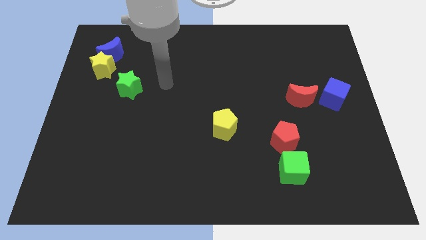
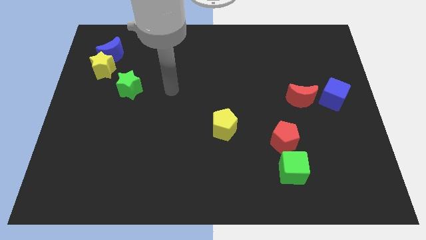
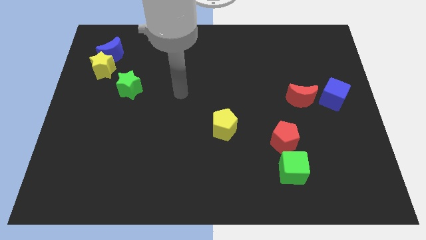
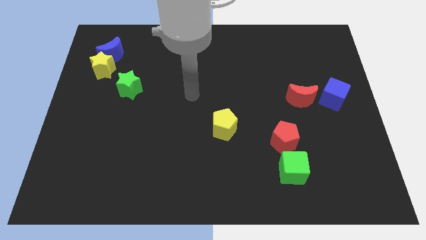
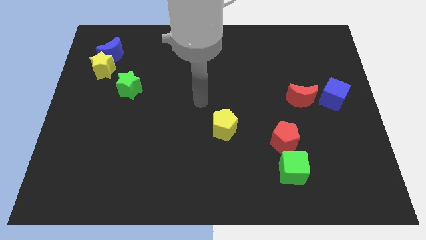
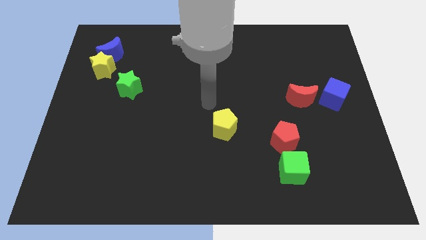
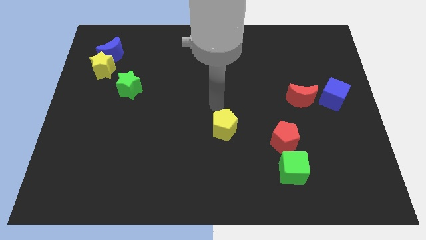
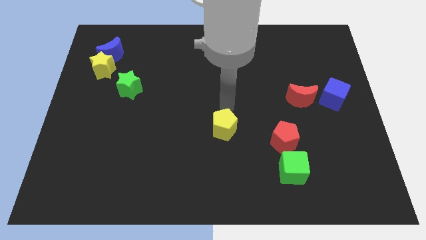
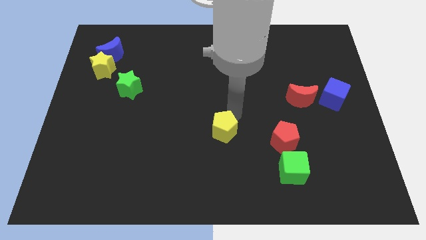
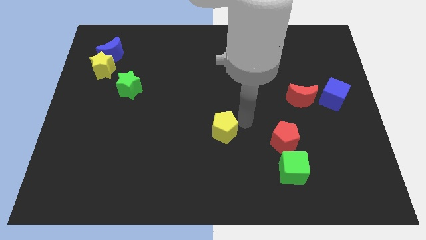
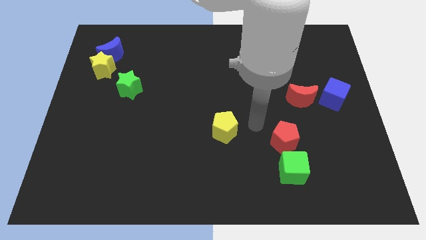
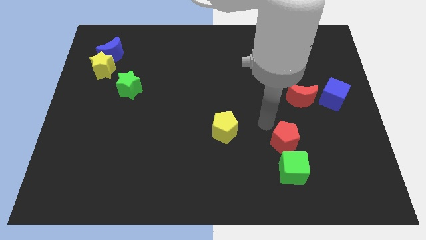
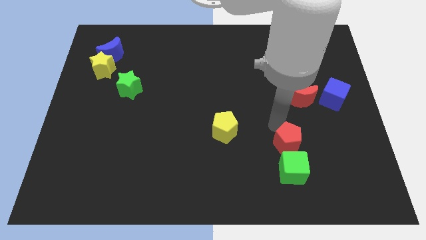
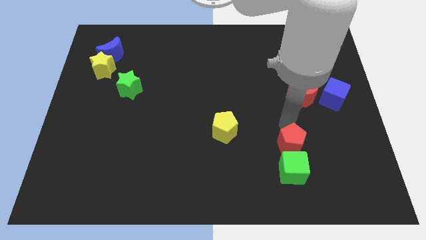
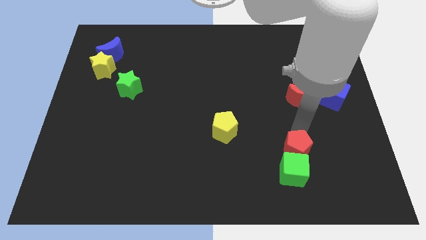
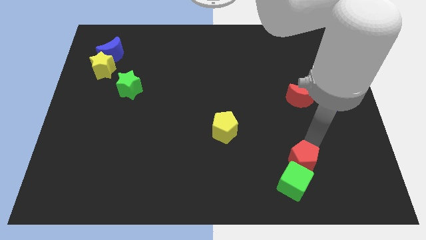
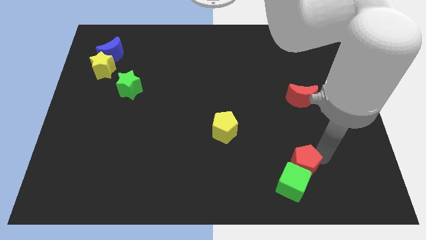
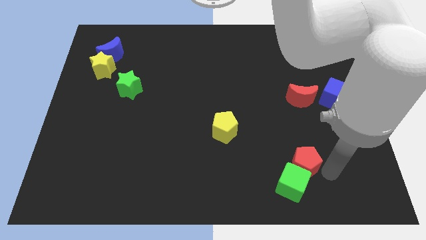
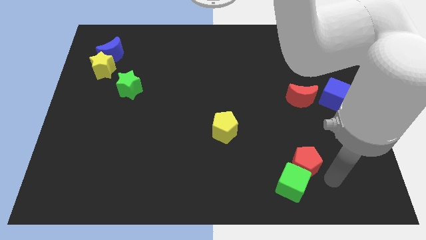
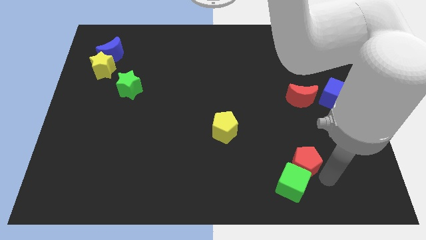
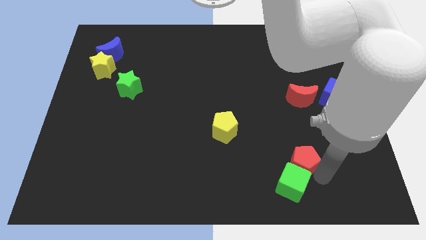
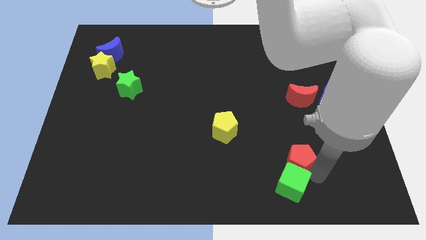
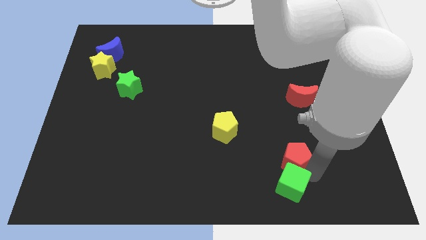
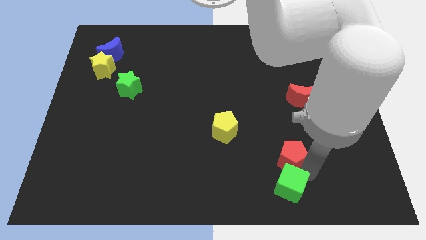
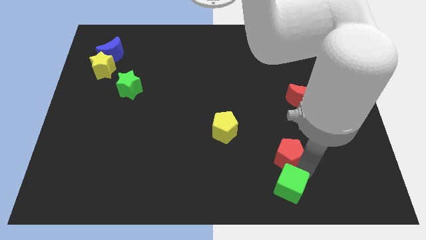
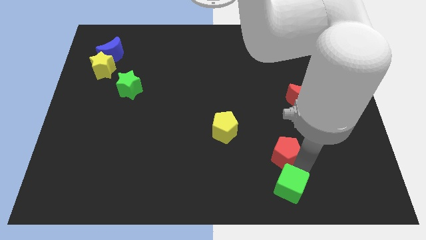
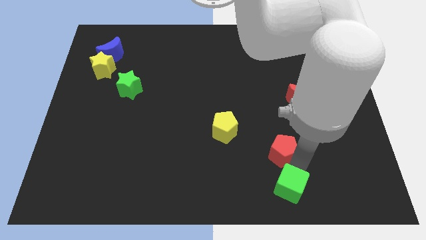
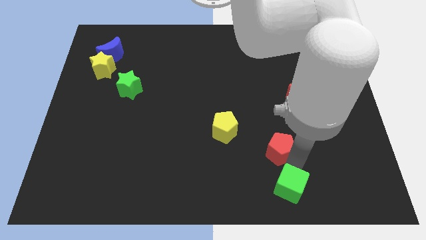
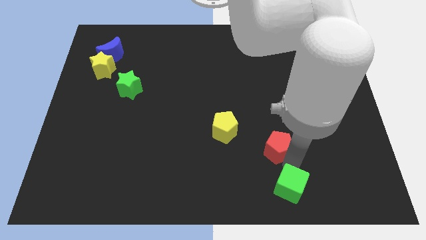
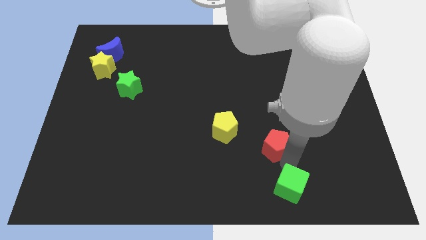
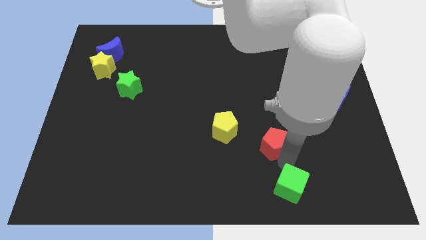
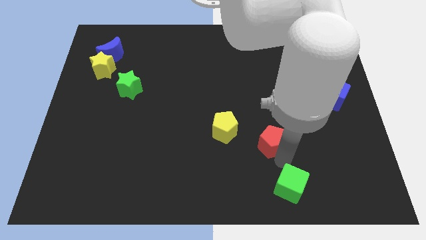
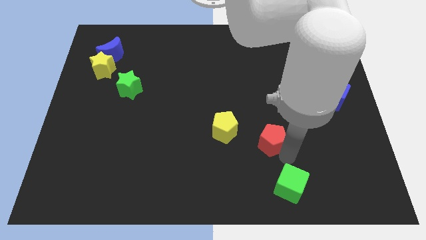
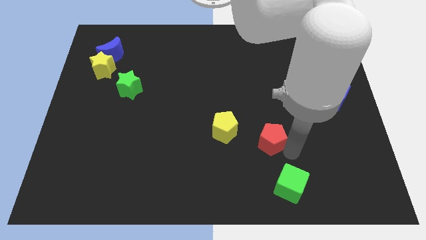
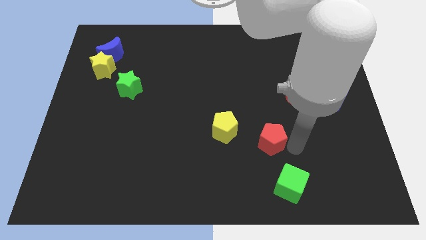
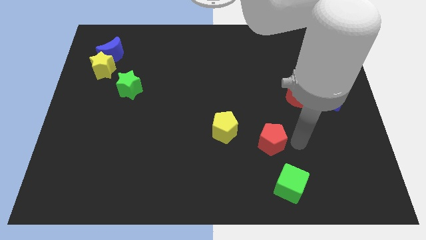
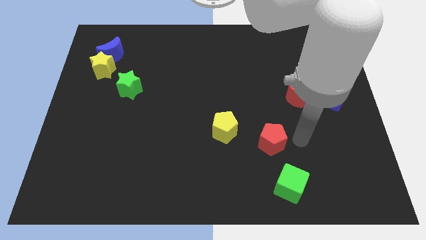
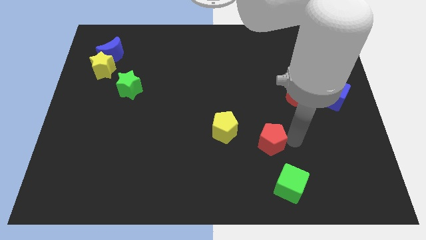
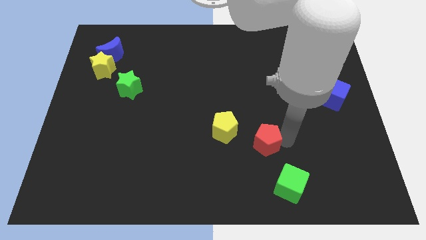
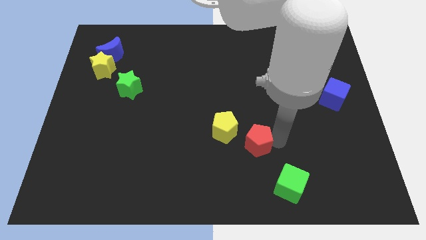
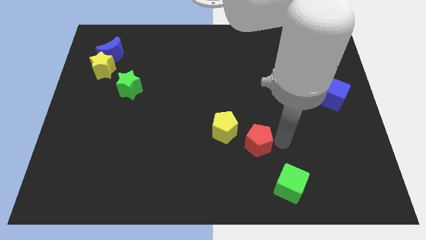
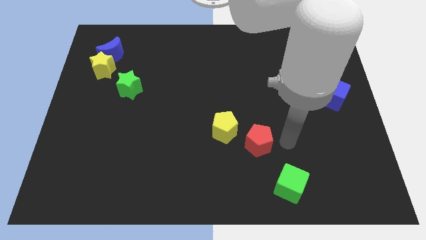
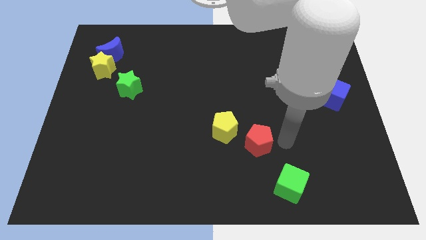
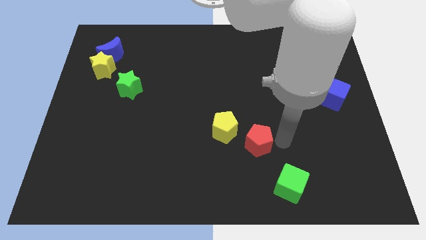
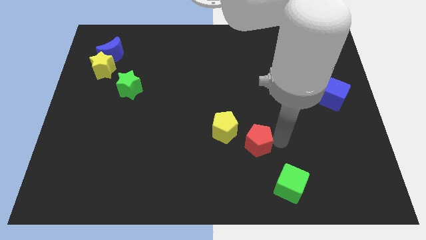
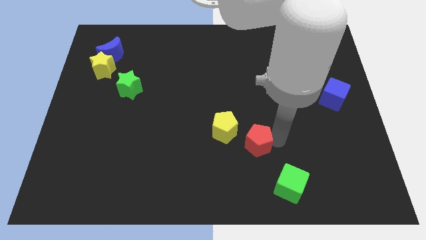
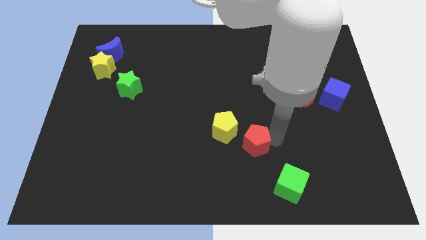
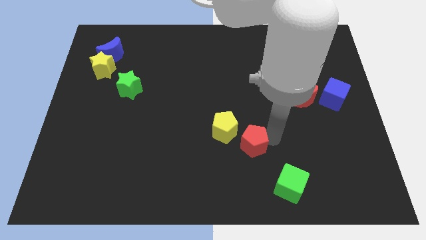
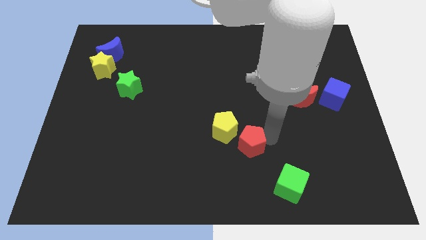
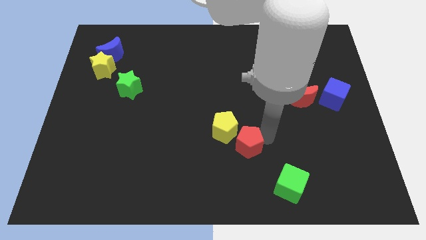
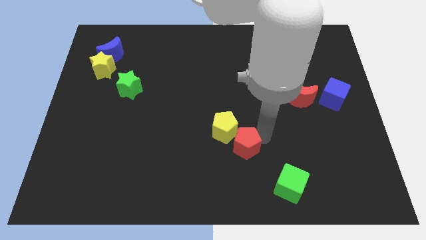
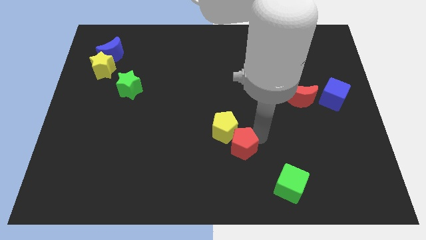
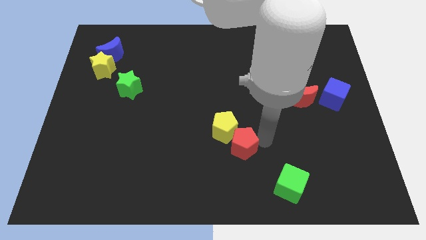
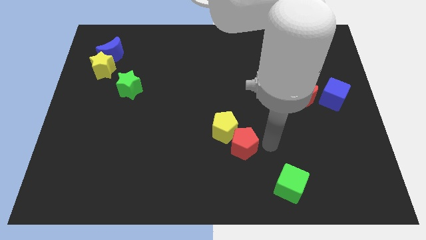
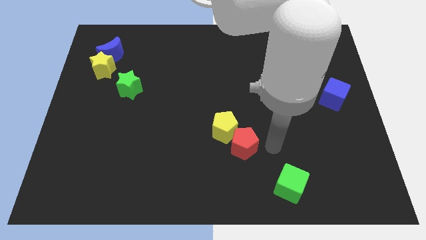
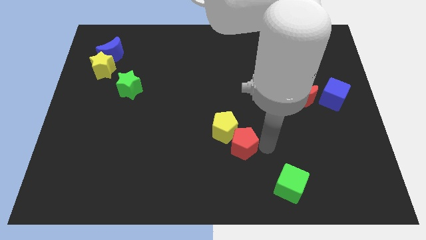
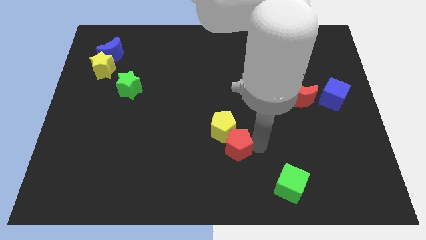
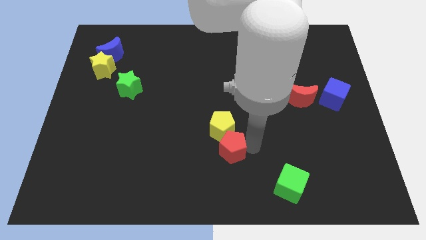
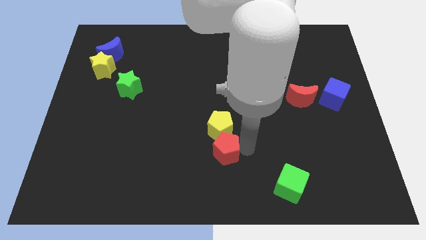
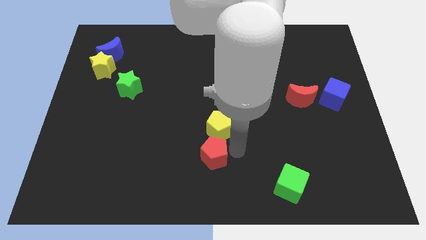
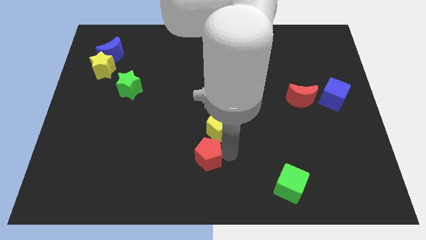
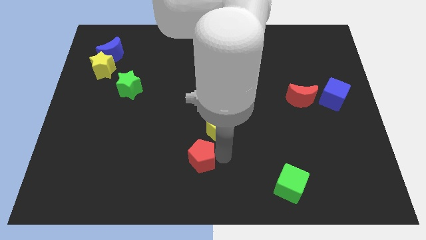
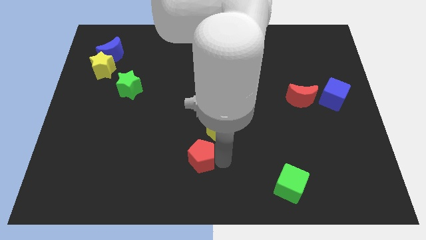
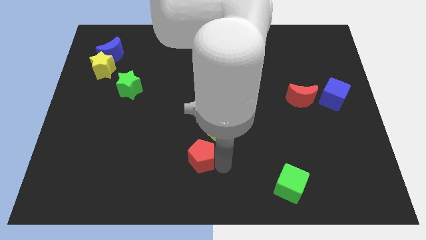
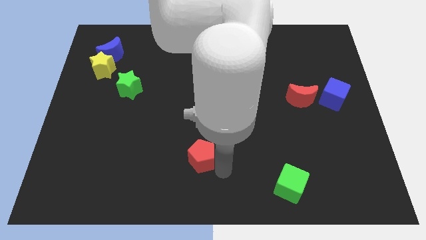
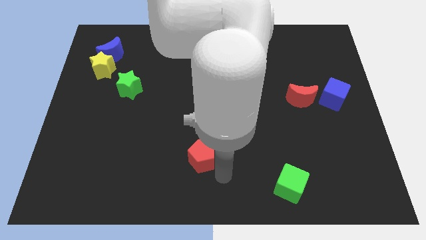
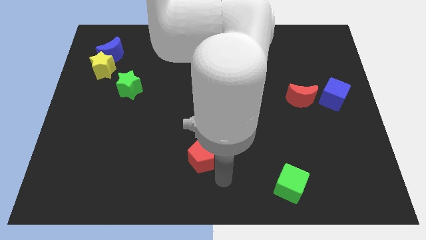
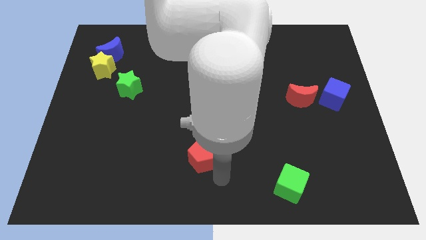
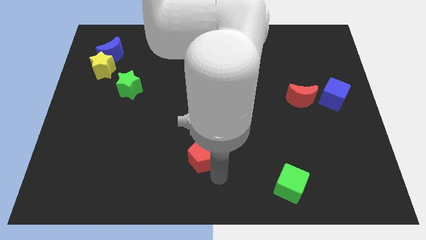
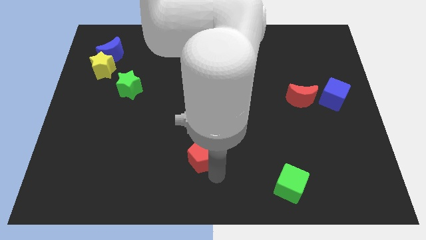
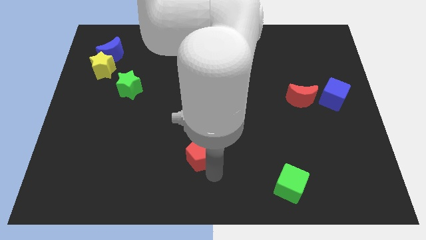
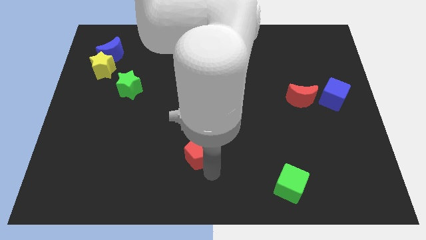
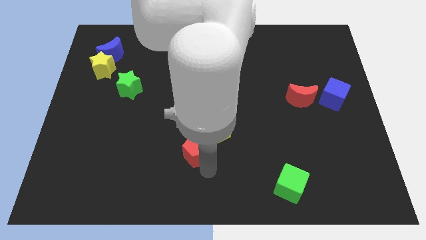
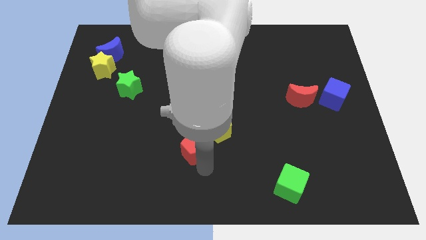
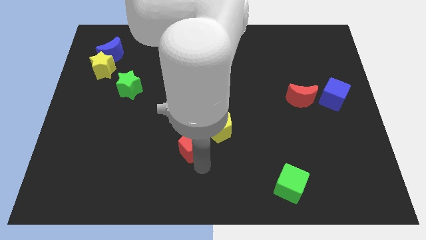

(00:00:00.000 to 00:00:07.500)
push the red pentagon to the left

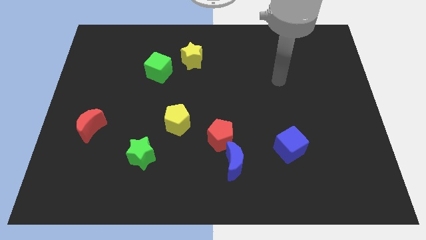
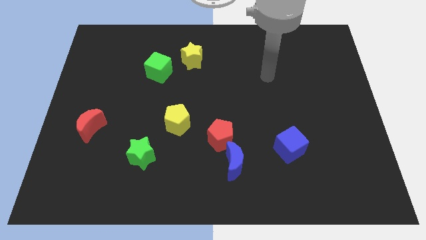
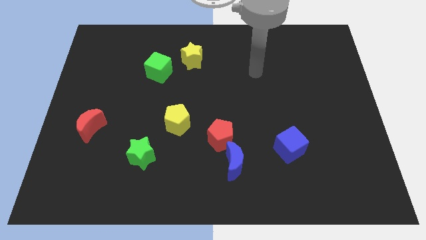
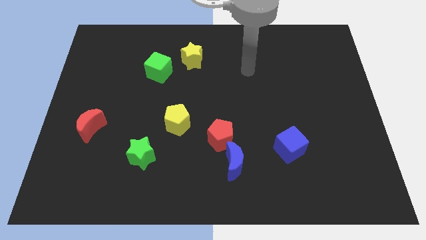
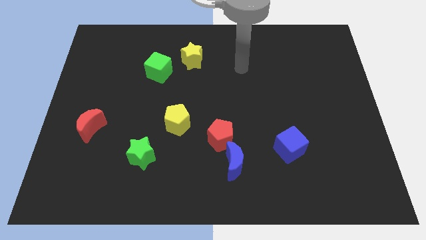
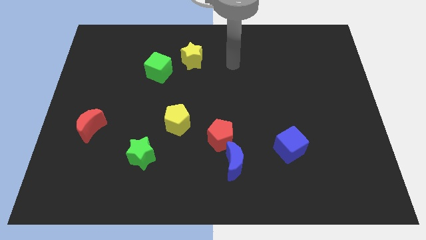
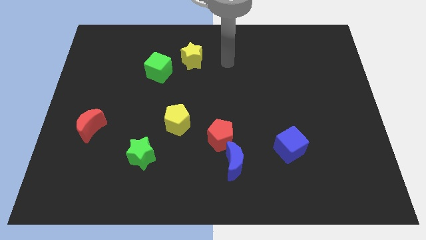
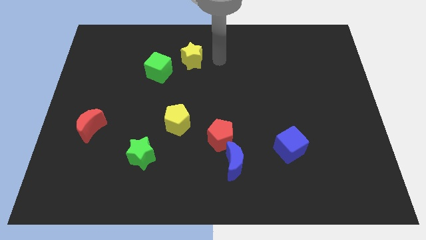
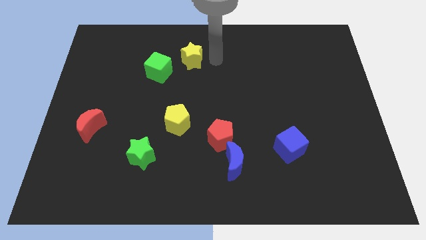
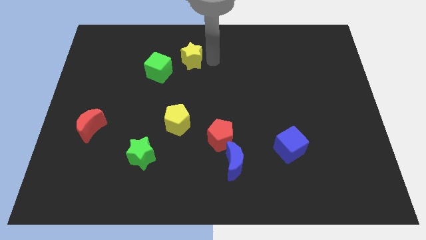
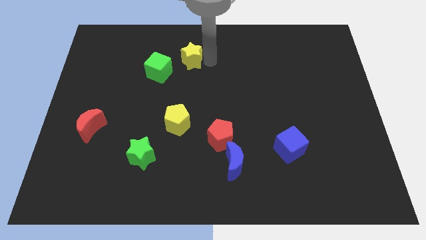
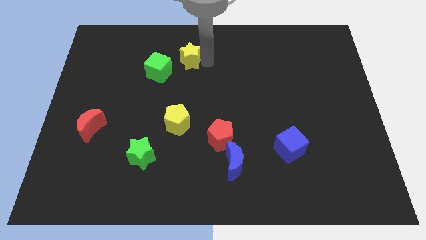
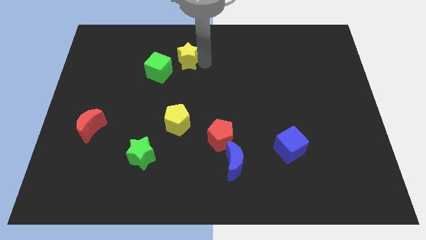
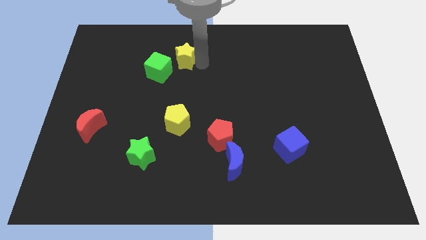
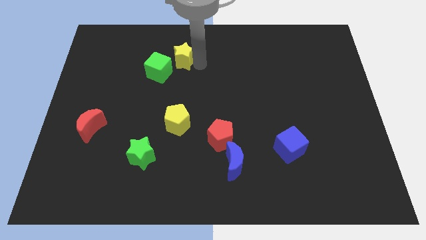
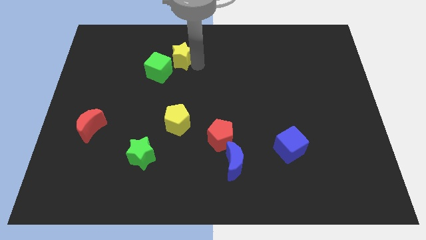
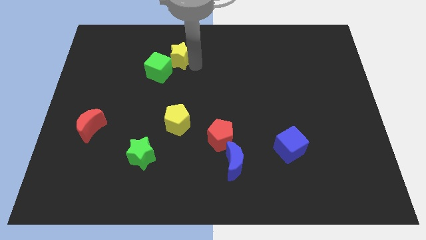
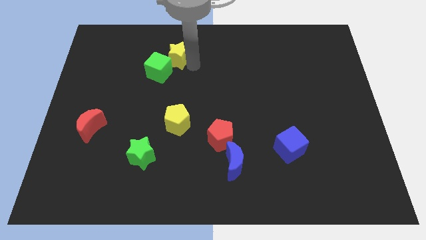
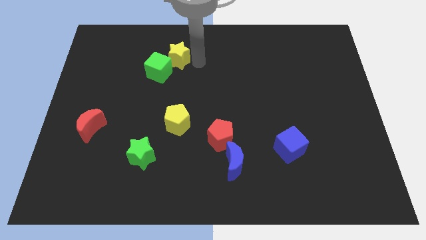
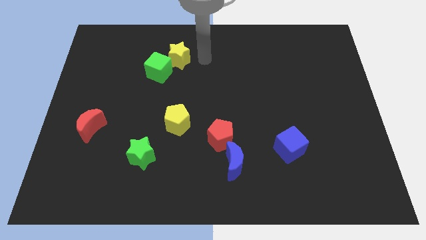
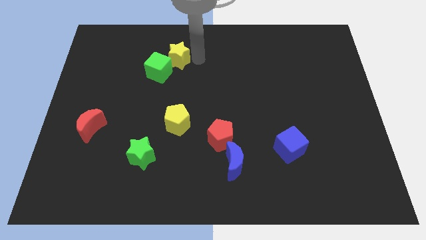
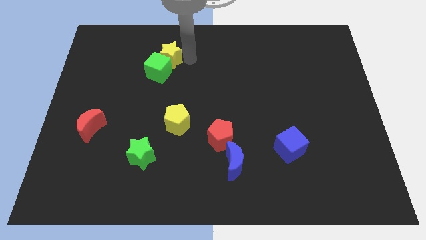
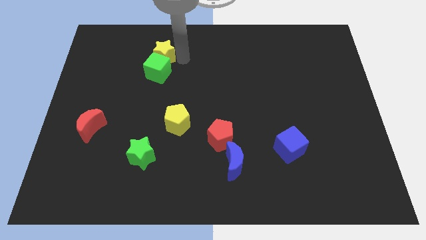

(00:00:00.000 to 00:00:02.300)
move the yellow star a bit to the left
